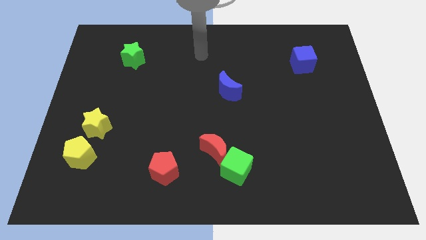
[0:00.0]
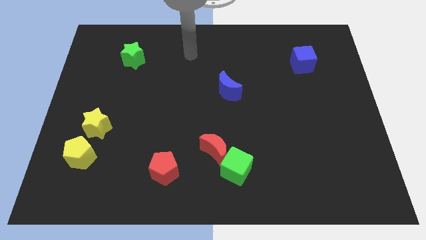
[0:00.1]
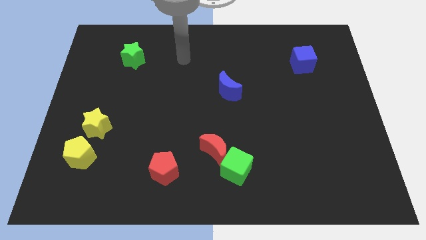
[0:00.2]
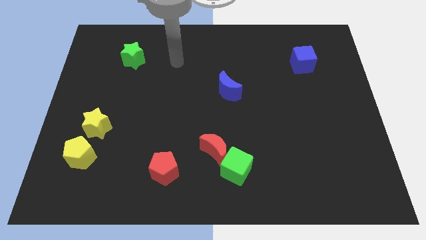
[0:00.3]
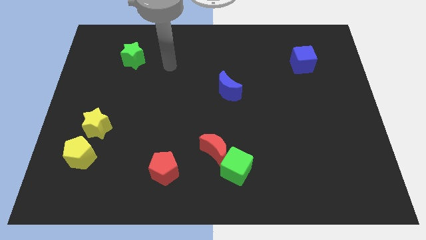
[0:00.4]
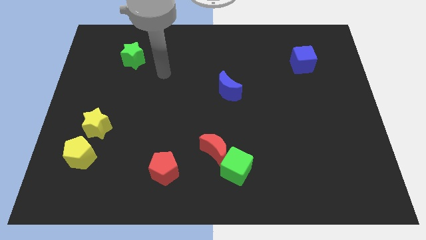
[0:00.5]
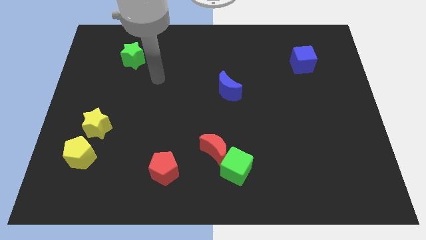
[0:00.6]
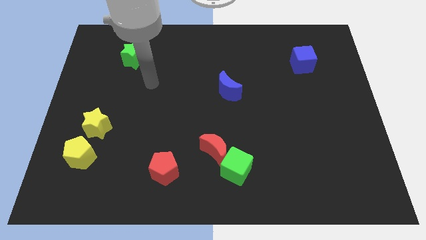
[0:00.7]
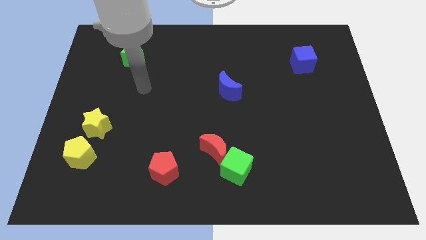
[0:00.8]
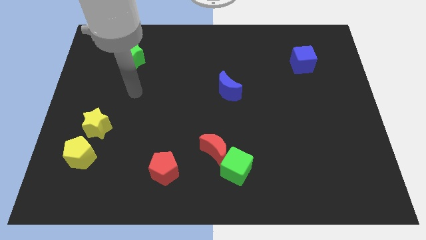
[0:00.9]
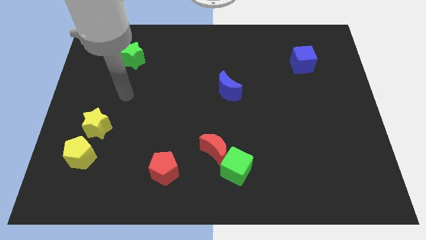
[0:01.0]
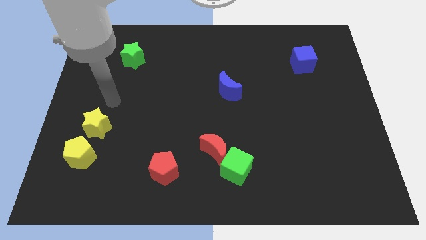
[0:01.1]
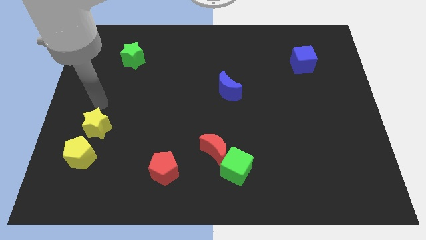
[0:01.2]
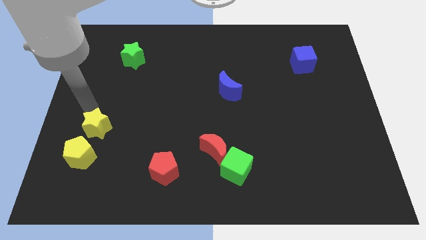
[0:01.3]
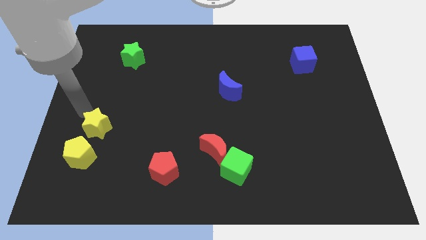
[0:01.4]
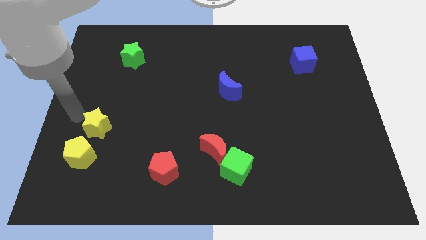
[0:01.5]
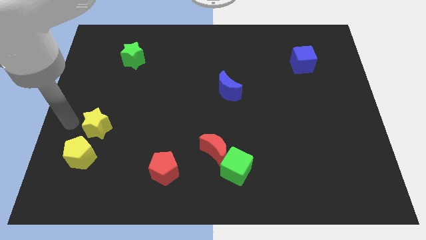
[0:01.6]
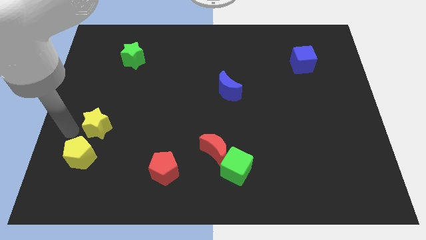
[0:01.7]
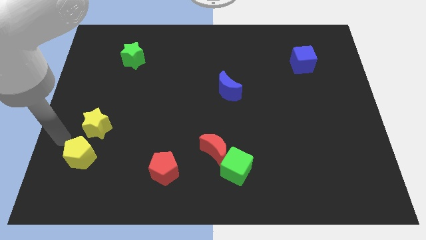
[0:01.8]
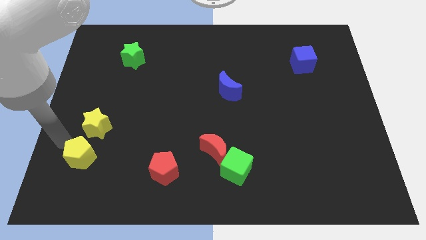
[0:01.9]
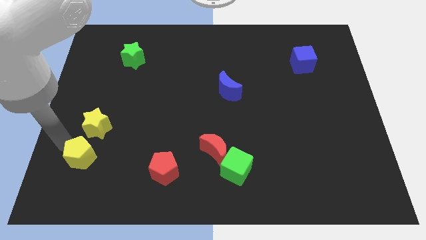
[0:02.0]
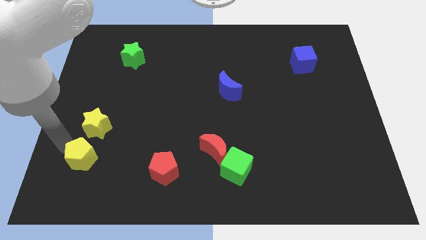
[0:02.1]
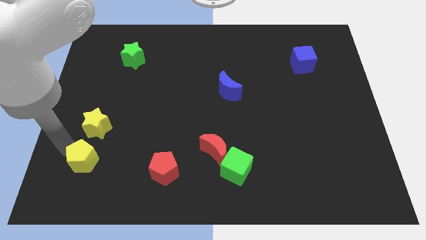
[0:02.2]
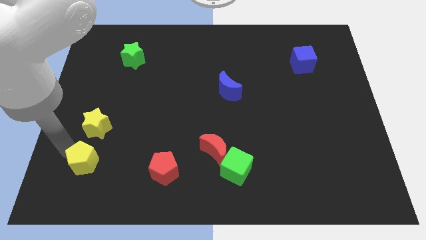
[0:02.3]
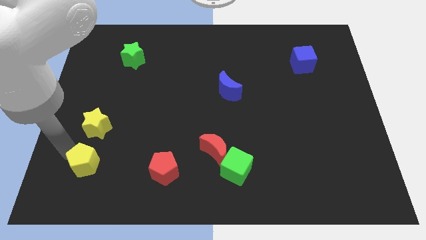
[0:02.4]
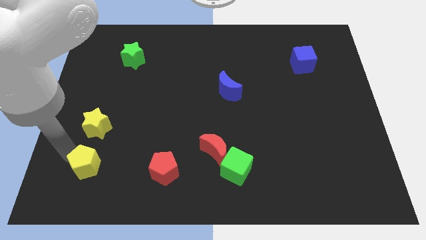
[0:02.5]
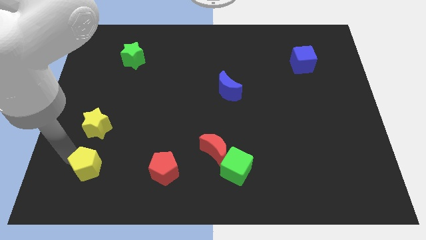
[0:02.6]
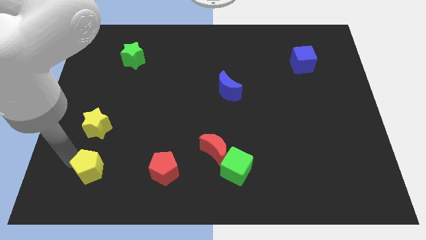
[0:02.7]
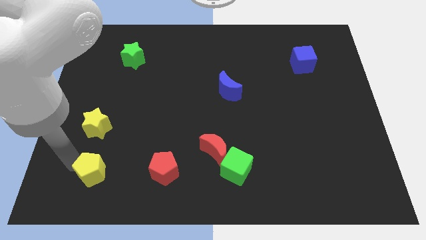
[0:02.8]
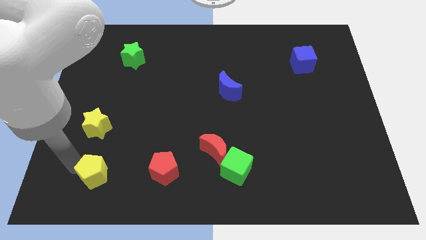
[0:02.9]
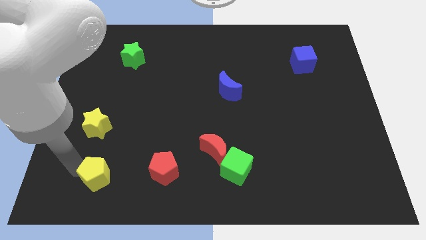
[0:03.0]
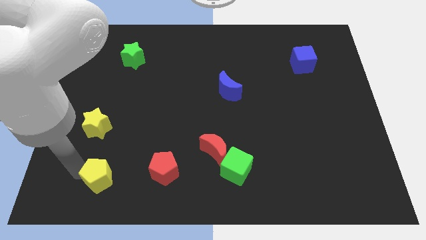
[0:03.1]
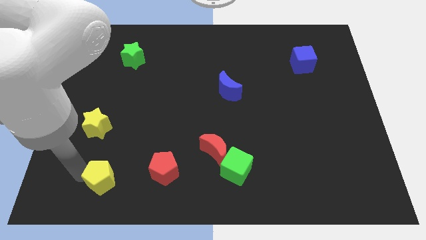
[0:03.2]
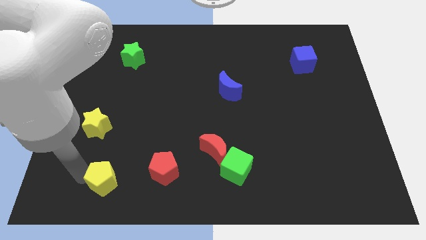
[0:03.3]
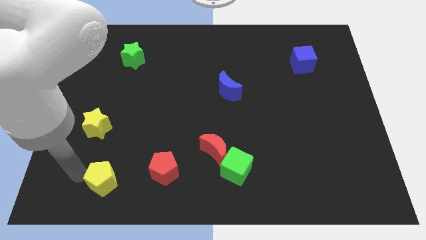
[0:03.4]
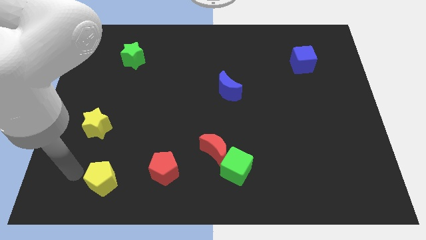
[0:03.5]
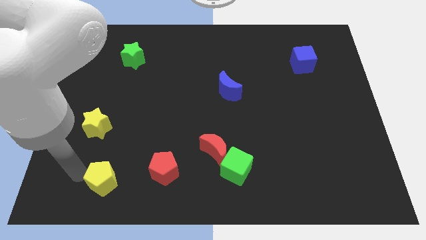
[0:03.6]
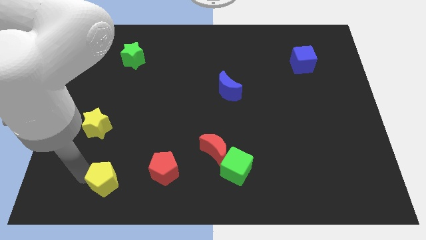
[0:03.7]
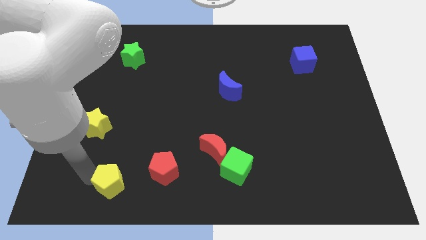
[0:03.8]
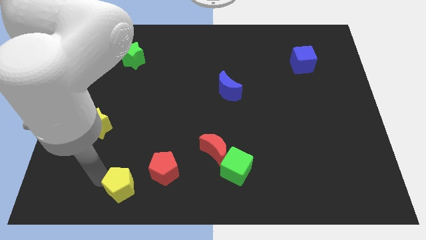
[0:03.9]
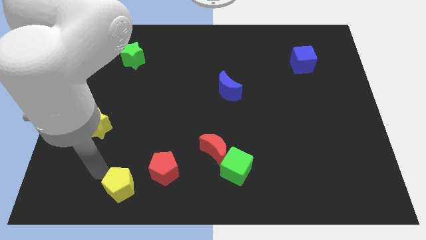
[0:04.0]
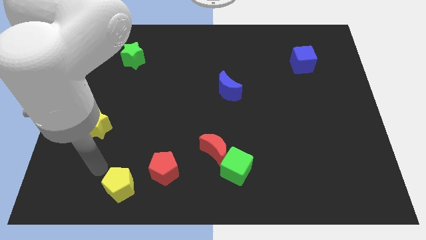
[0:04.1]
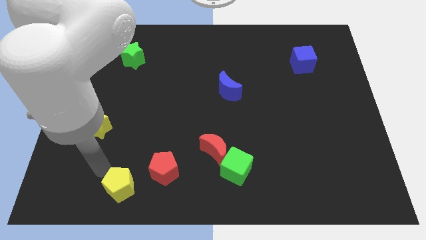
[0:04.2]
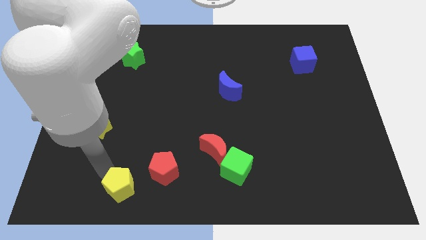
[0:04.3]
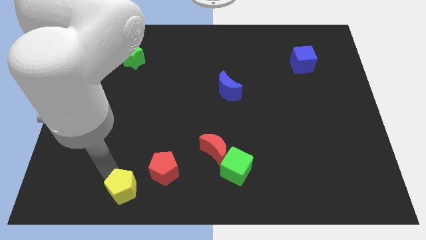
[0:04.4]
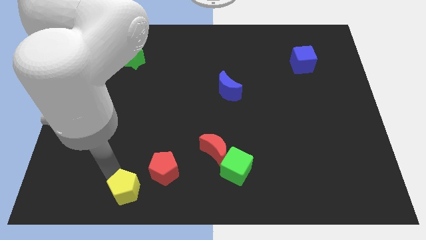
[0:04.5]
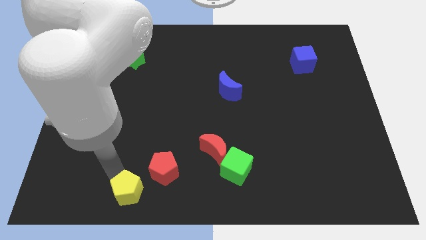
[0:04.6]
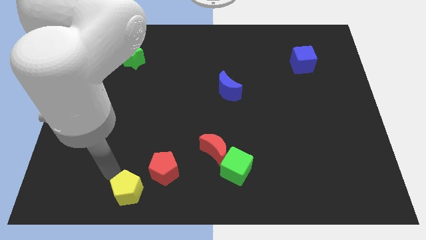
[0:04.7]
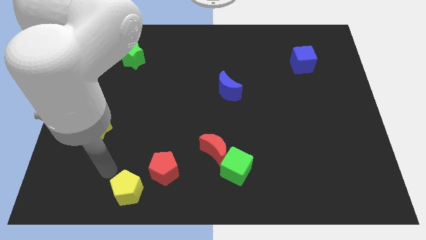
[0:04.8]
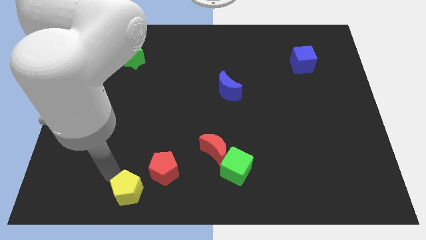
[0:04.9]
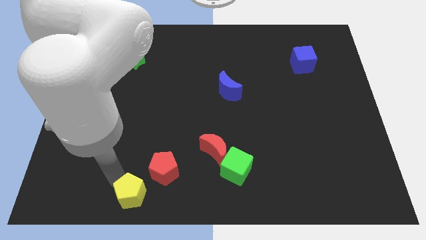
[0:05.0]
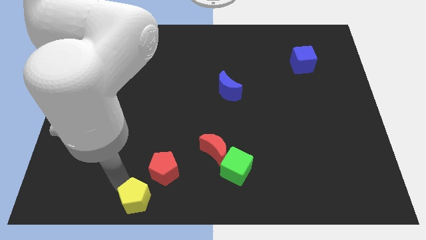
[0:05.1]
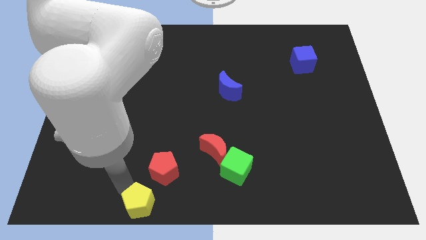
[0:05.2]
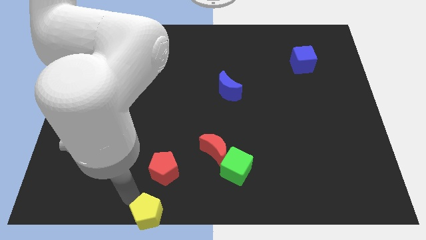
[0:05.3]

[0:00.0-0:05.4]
slide the yellow pentagon to the bottom side

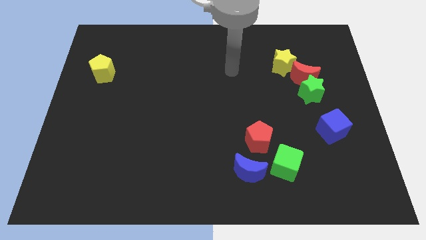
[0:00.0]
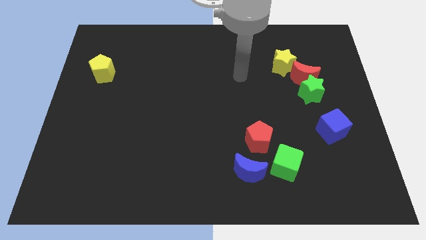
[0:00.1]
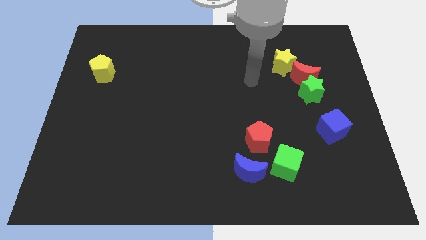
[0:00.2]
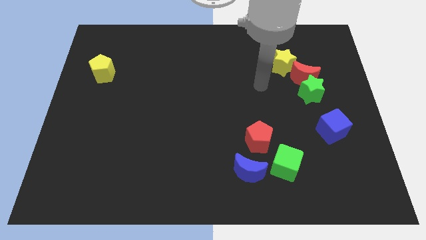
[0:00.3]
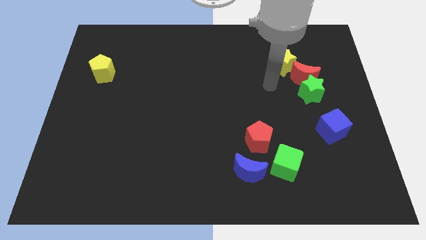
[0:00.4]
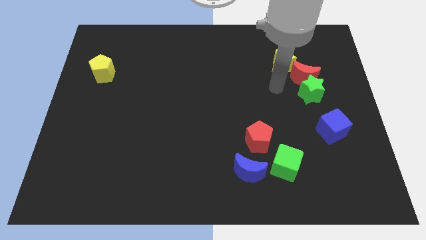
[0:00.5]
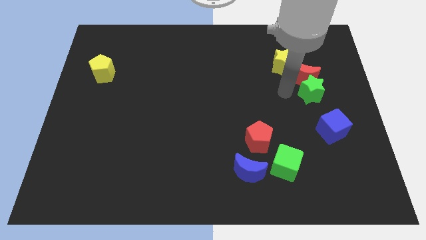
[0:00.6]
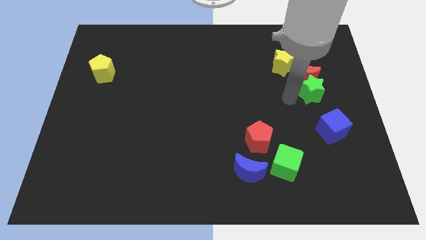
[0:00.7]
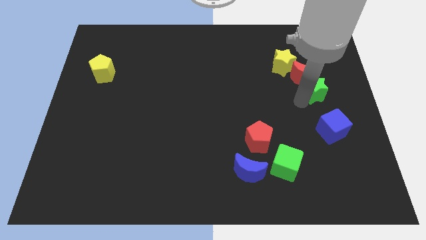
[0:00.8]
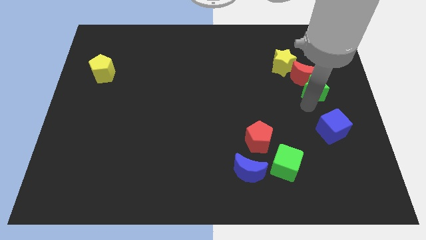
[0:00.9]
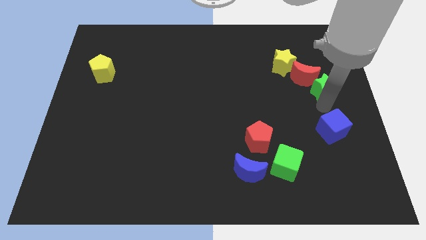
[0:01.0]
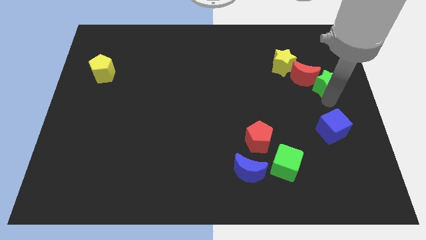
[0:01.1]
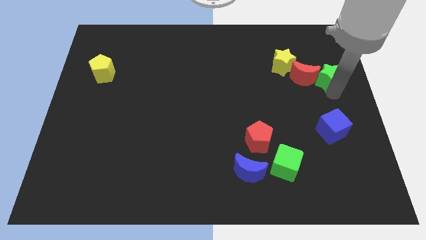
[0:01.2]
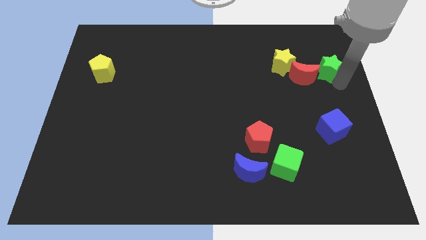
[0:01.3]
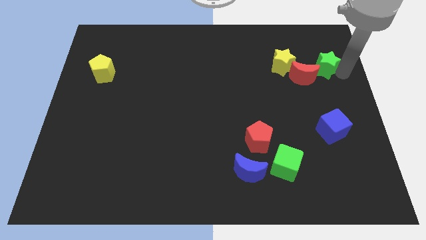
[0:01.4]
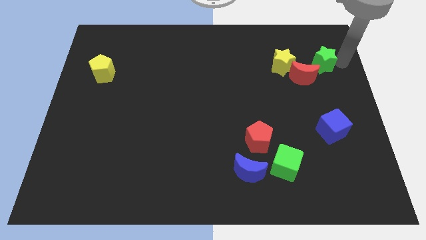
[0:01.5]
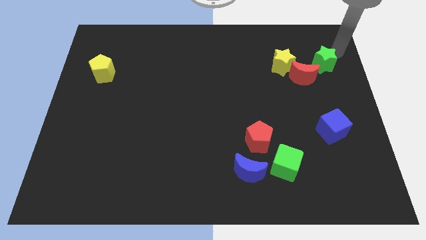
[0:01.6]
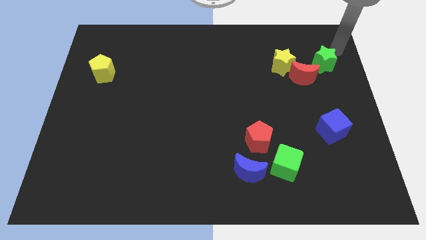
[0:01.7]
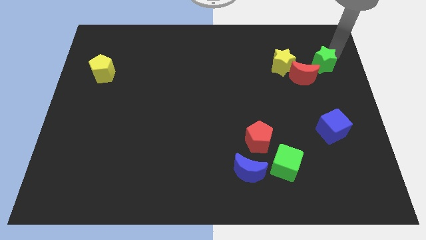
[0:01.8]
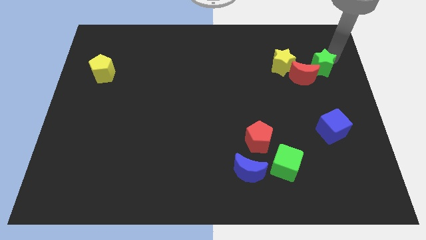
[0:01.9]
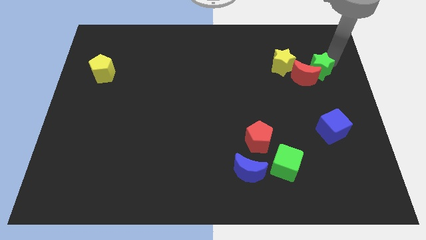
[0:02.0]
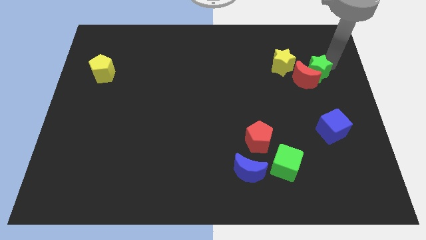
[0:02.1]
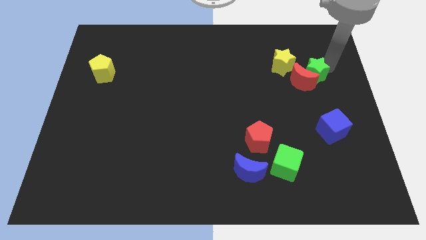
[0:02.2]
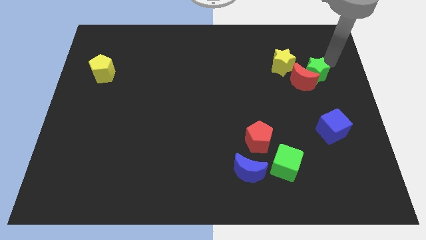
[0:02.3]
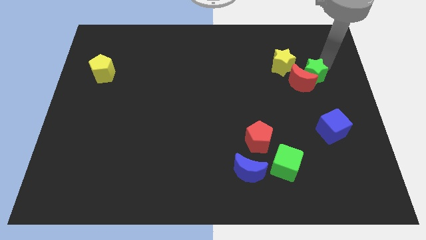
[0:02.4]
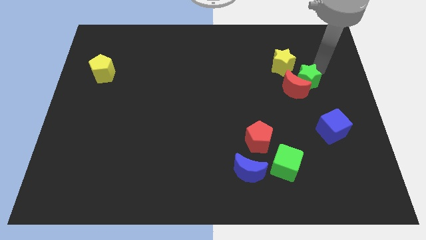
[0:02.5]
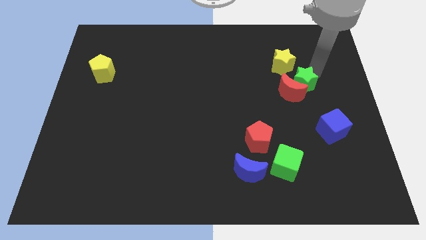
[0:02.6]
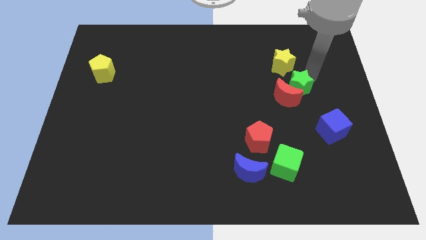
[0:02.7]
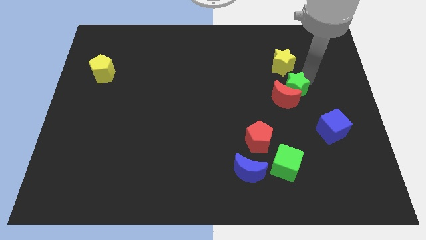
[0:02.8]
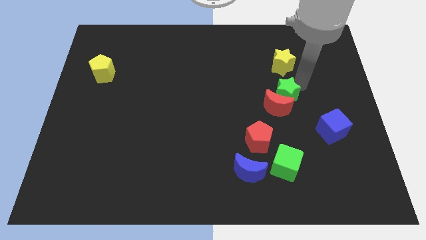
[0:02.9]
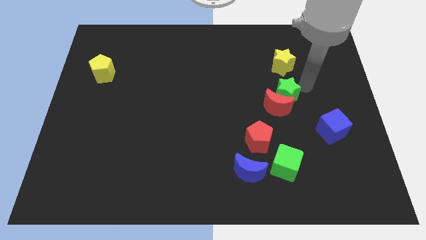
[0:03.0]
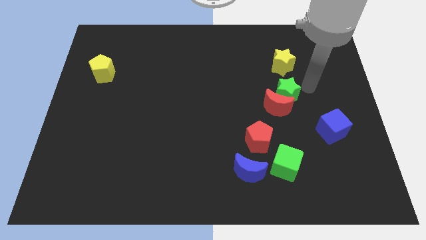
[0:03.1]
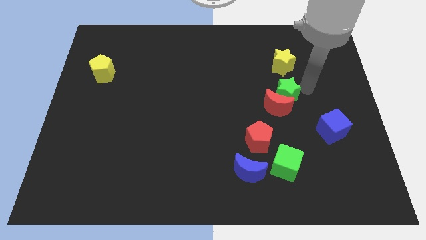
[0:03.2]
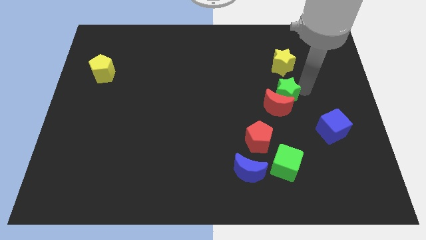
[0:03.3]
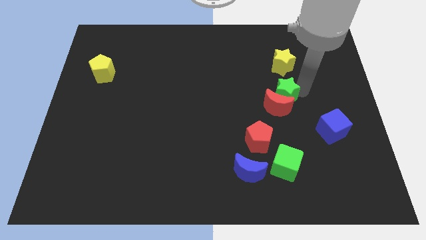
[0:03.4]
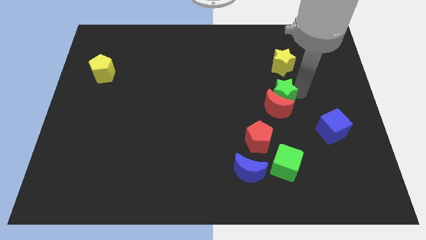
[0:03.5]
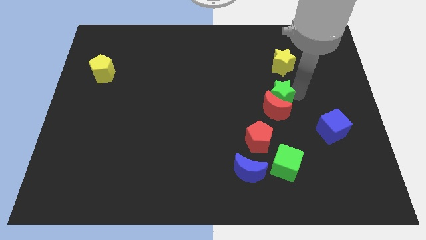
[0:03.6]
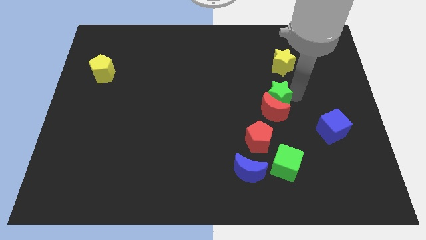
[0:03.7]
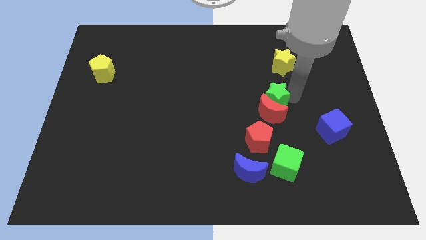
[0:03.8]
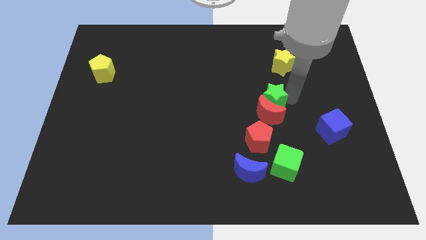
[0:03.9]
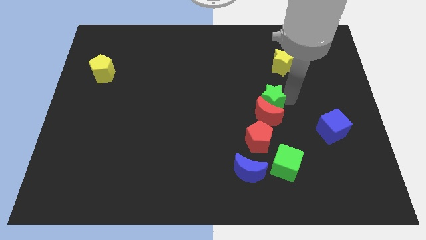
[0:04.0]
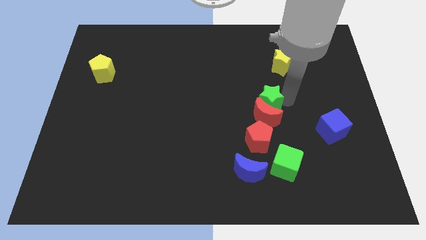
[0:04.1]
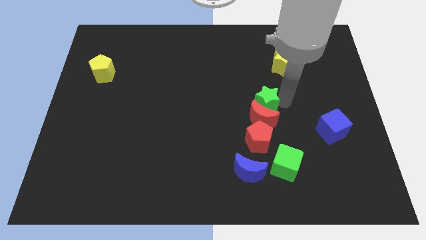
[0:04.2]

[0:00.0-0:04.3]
slide the green star to the center of the board
